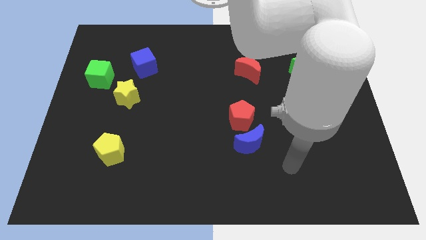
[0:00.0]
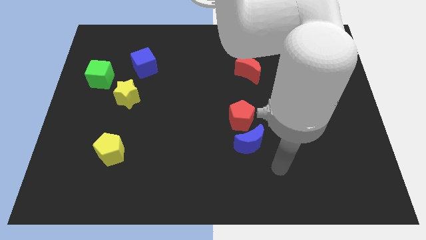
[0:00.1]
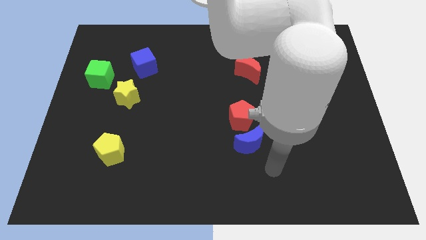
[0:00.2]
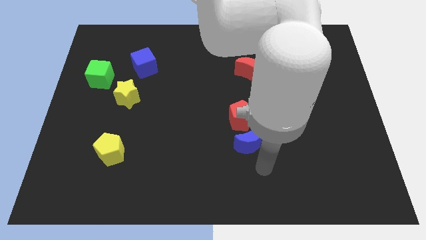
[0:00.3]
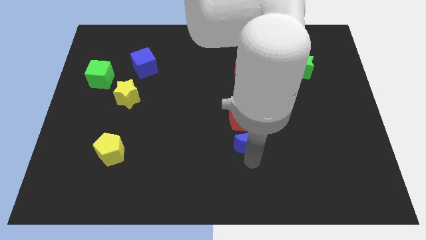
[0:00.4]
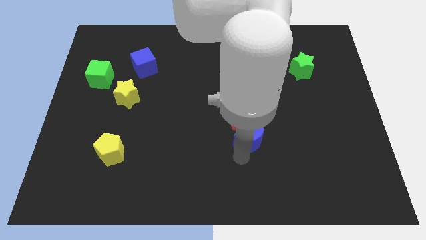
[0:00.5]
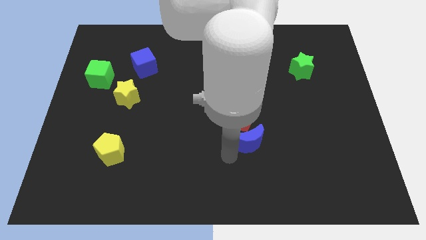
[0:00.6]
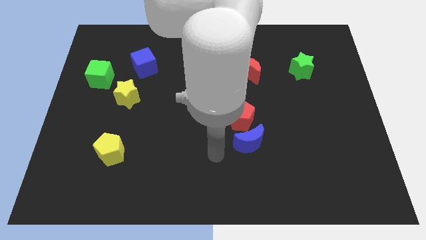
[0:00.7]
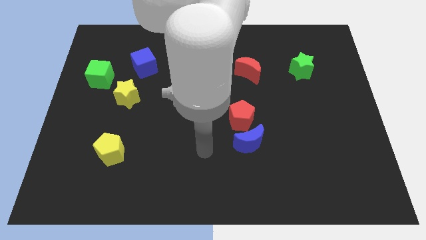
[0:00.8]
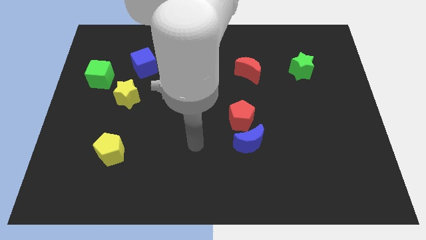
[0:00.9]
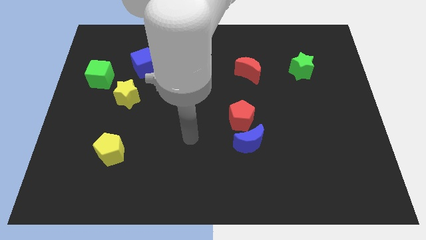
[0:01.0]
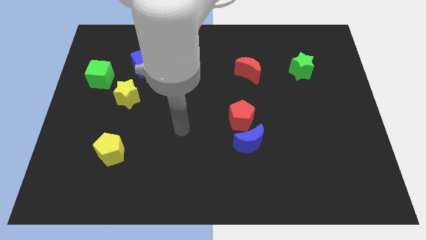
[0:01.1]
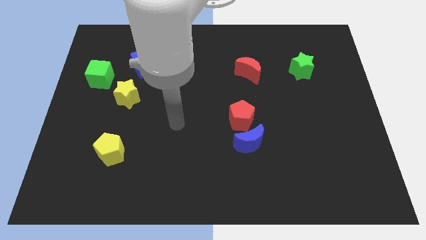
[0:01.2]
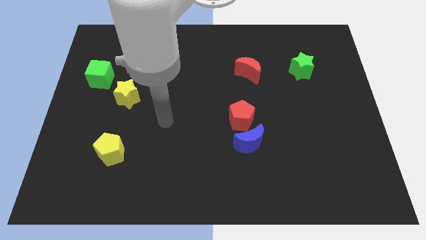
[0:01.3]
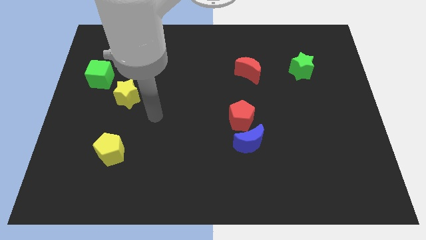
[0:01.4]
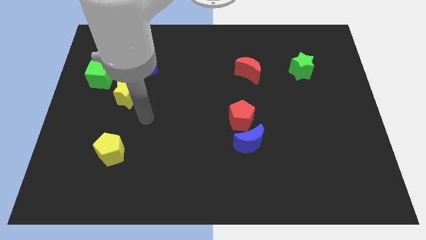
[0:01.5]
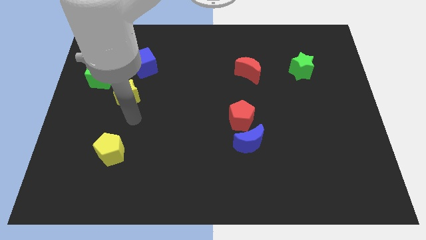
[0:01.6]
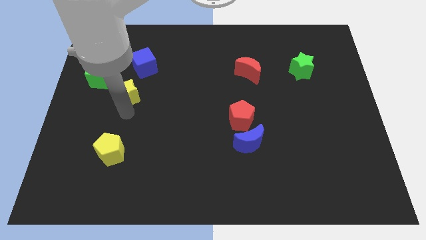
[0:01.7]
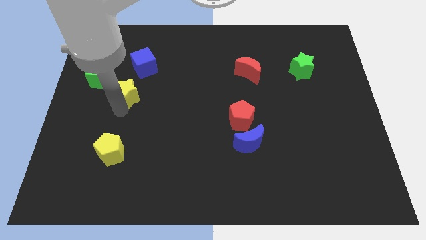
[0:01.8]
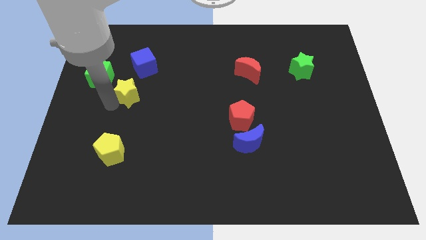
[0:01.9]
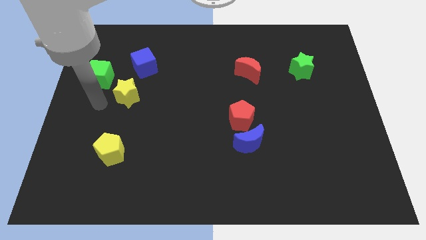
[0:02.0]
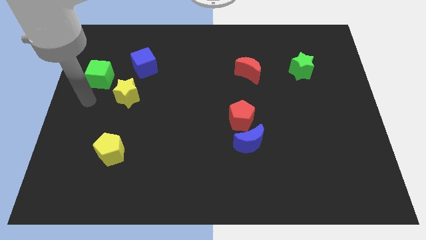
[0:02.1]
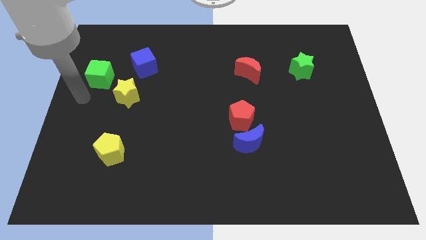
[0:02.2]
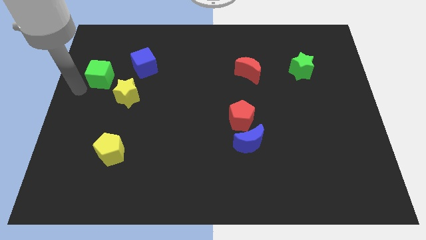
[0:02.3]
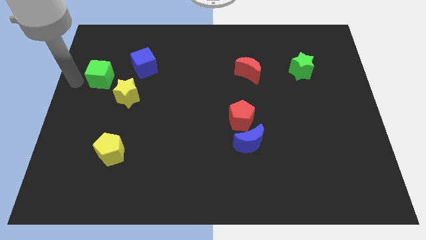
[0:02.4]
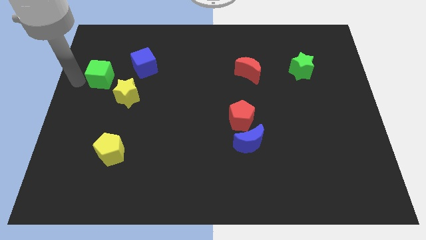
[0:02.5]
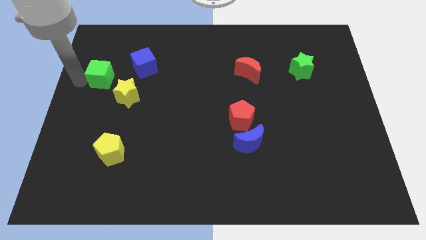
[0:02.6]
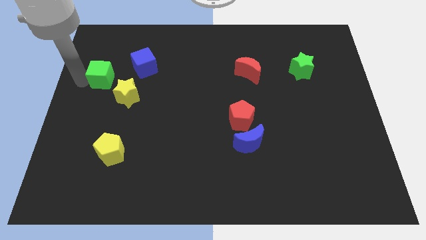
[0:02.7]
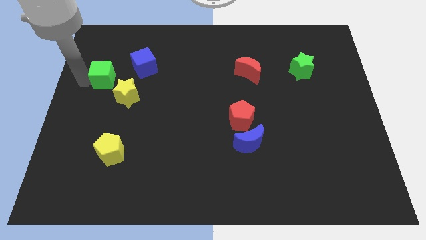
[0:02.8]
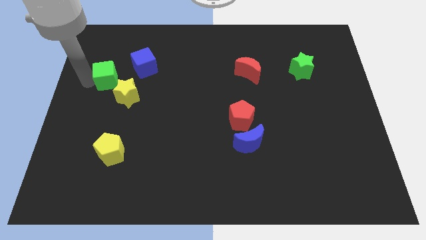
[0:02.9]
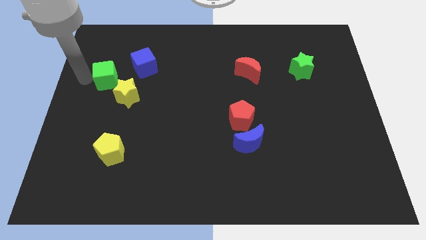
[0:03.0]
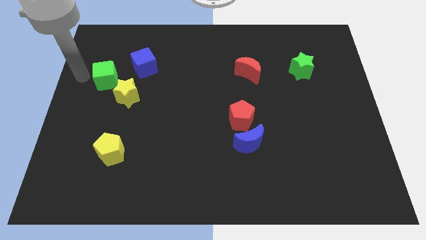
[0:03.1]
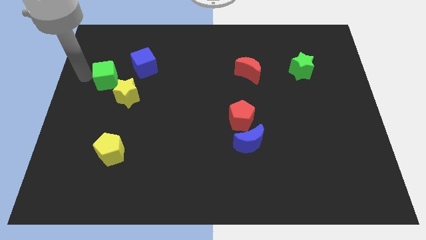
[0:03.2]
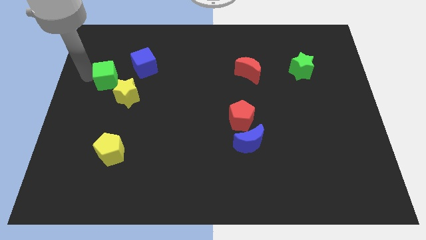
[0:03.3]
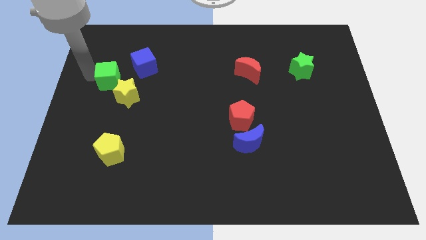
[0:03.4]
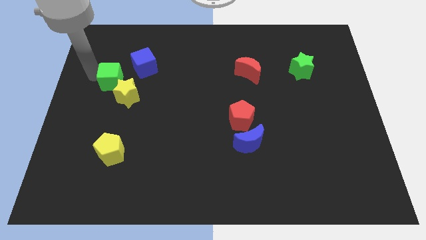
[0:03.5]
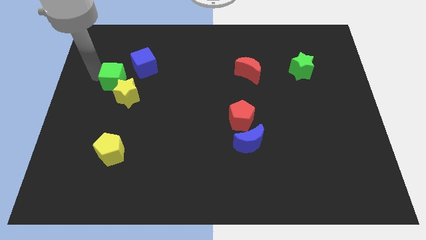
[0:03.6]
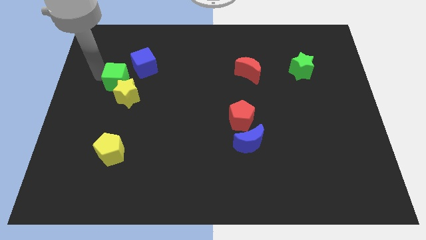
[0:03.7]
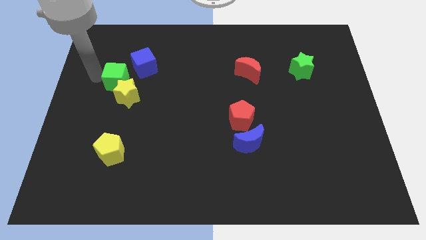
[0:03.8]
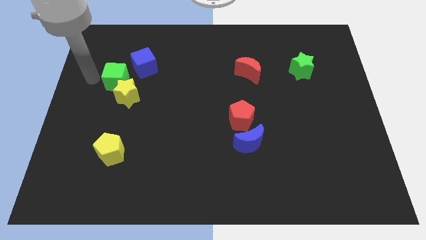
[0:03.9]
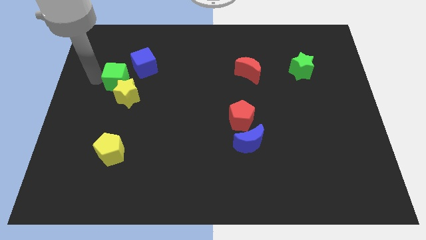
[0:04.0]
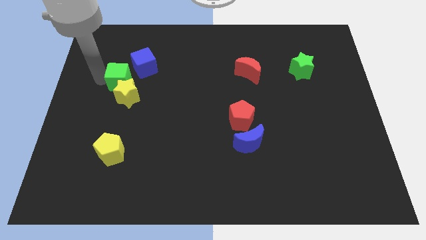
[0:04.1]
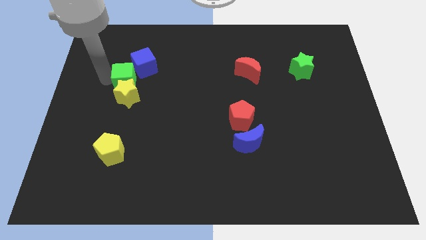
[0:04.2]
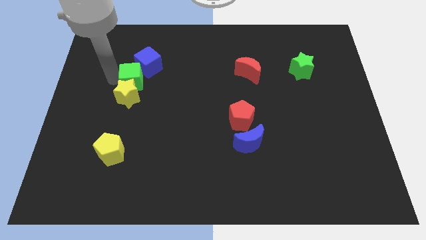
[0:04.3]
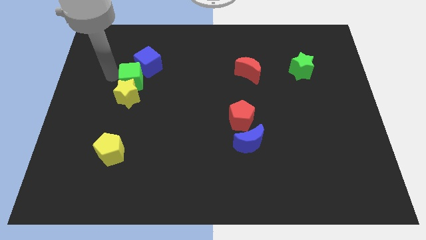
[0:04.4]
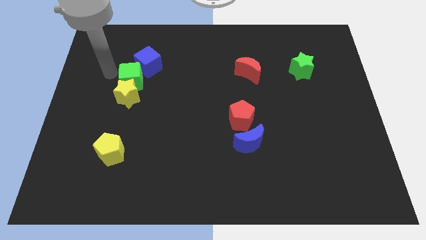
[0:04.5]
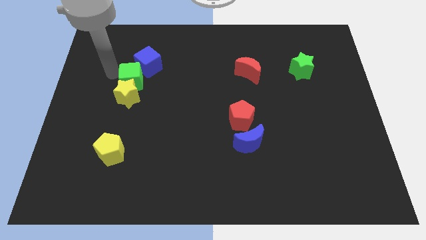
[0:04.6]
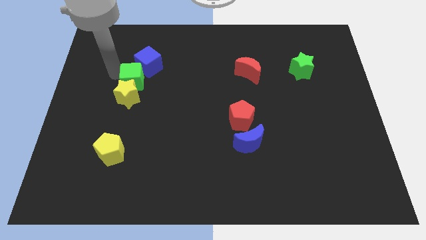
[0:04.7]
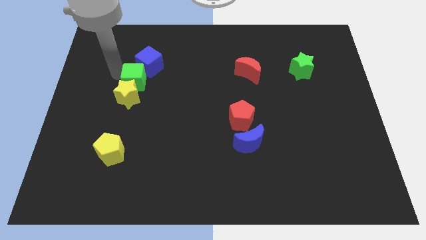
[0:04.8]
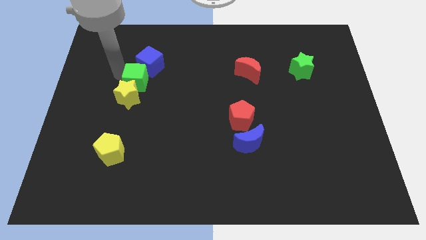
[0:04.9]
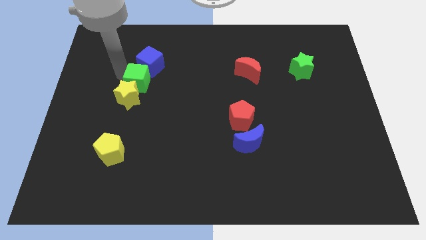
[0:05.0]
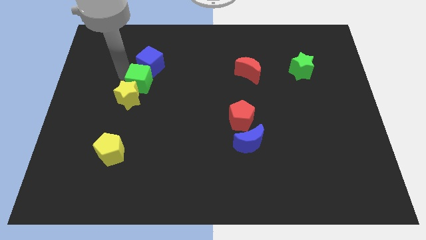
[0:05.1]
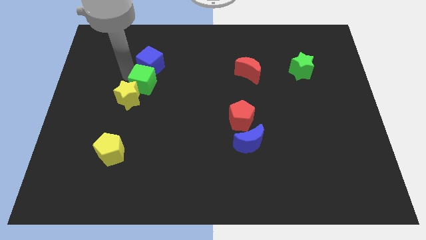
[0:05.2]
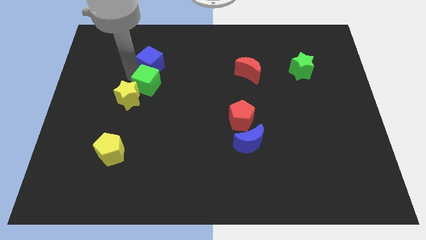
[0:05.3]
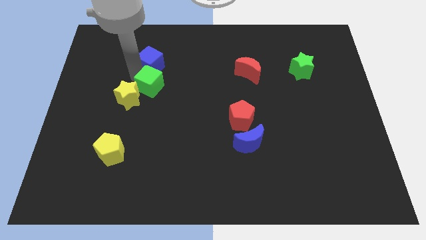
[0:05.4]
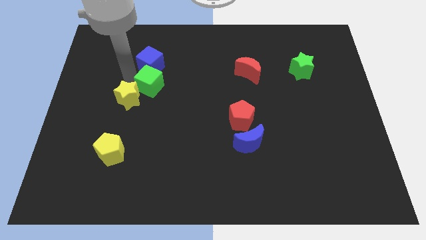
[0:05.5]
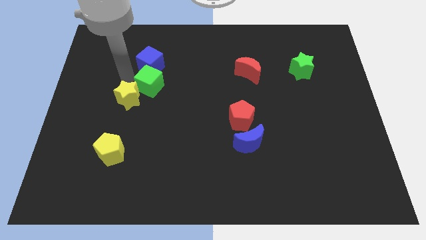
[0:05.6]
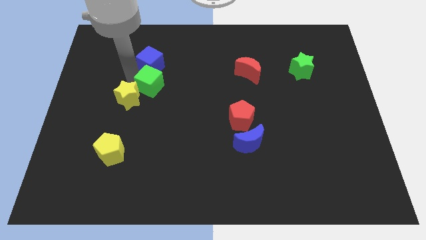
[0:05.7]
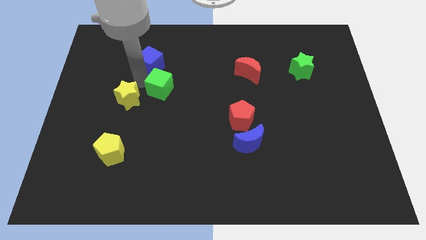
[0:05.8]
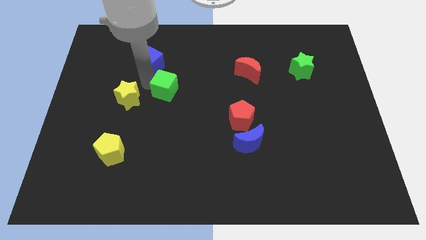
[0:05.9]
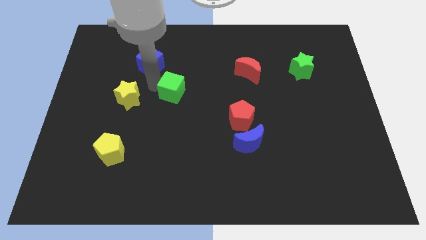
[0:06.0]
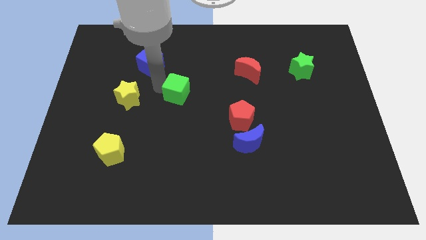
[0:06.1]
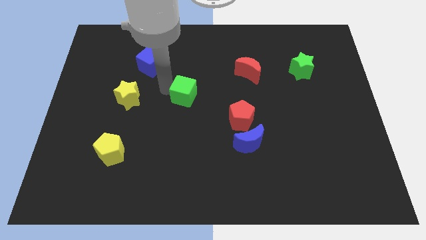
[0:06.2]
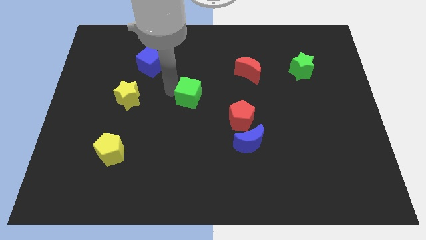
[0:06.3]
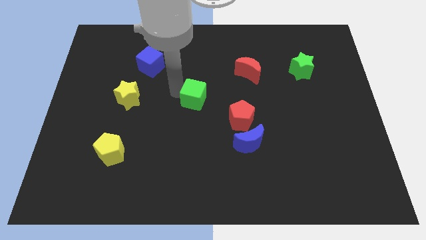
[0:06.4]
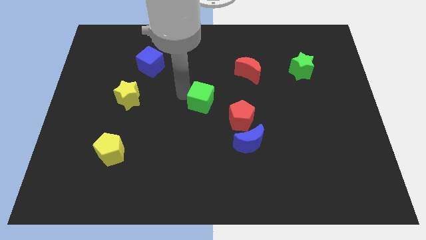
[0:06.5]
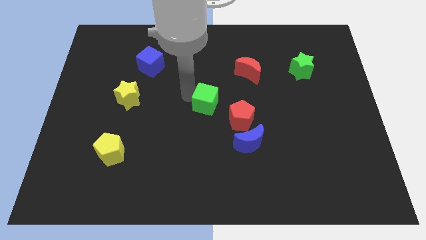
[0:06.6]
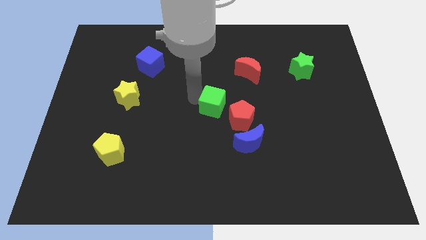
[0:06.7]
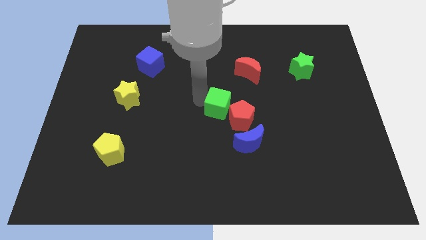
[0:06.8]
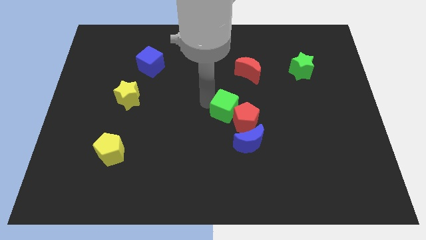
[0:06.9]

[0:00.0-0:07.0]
slide the green cube close to the red pentagon
